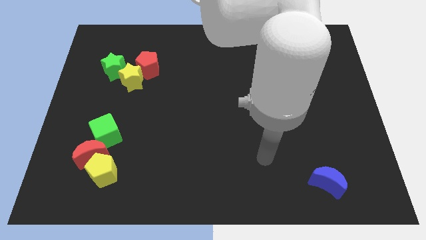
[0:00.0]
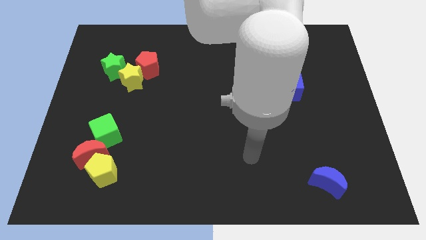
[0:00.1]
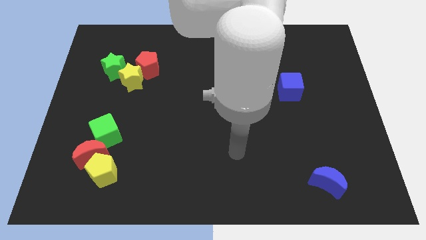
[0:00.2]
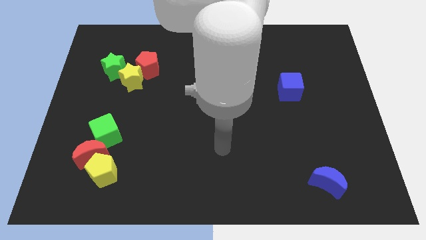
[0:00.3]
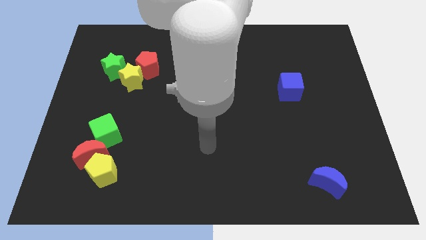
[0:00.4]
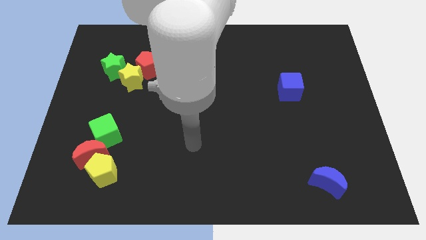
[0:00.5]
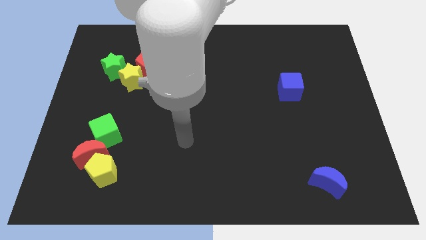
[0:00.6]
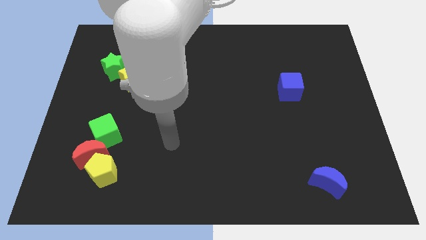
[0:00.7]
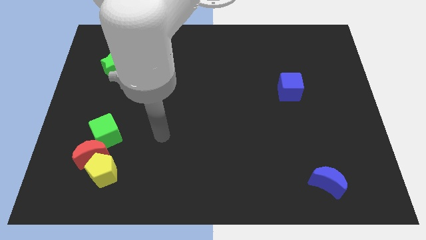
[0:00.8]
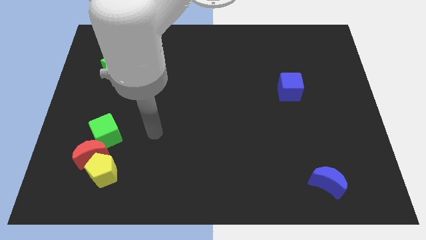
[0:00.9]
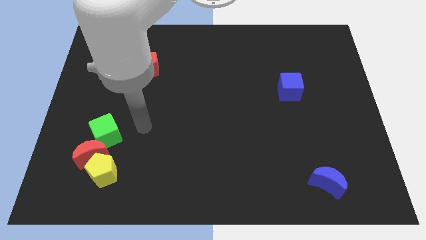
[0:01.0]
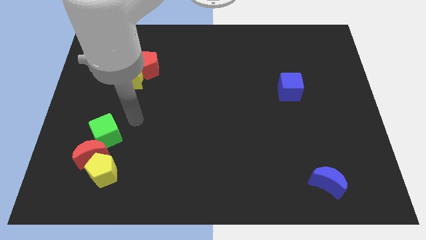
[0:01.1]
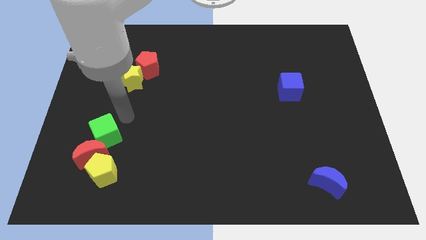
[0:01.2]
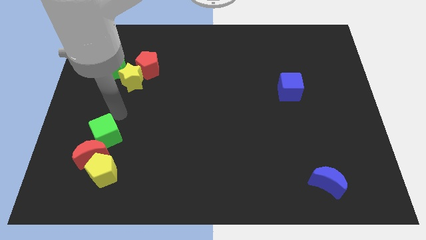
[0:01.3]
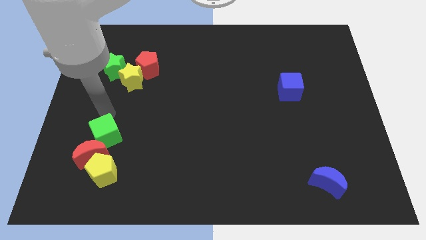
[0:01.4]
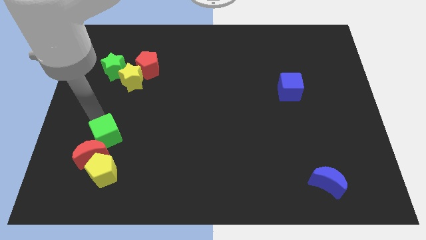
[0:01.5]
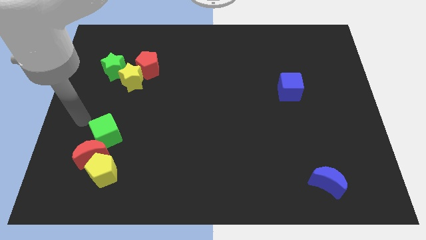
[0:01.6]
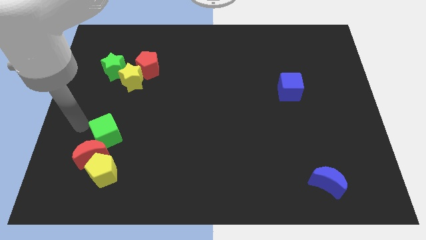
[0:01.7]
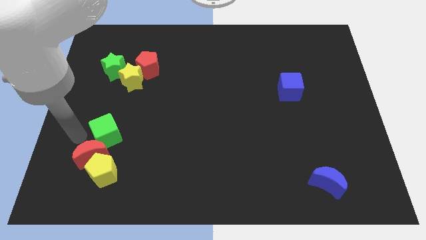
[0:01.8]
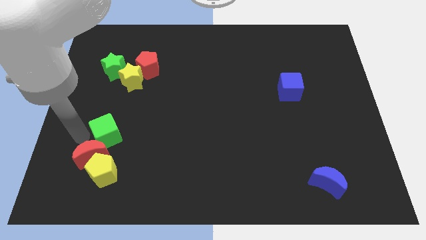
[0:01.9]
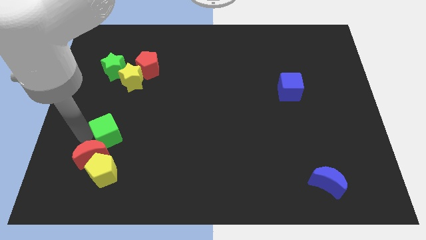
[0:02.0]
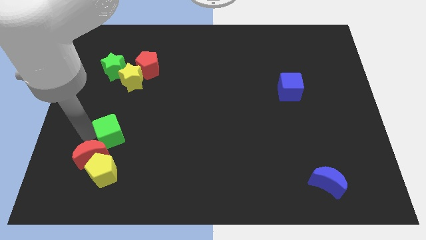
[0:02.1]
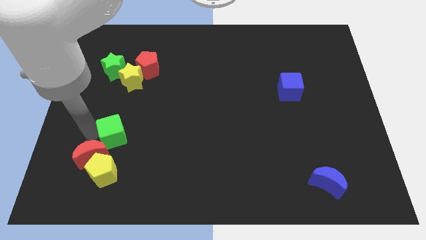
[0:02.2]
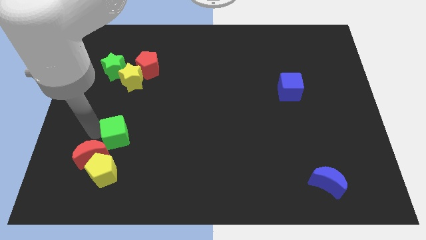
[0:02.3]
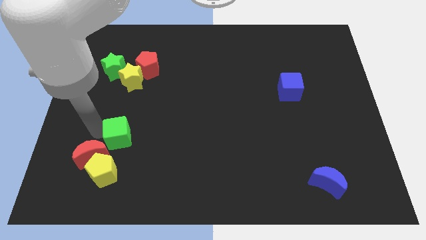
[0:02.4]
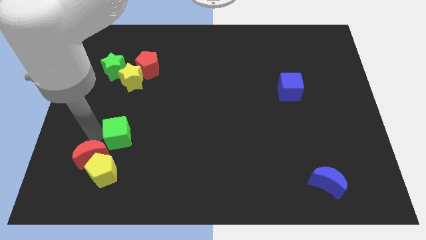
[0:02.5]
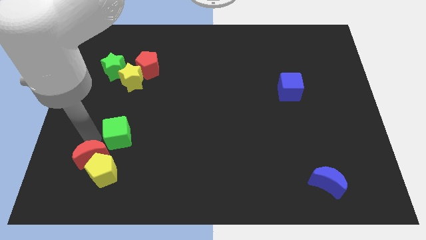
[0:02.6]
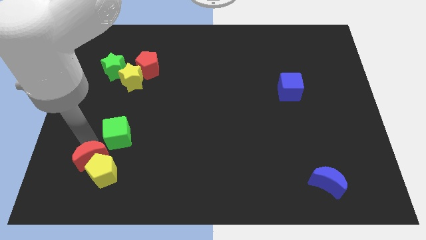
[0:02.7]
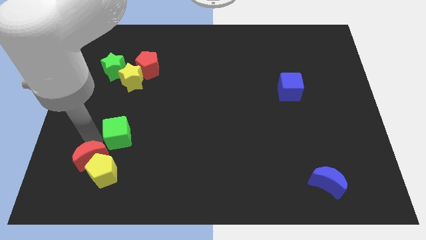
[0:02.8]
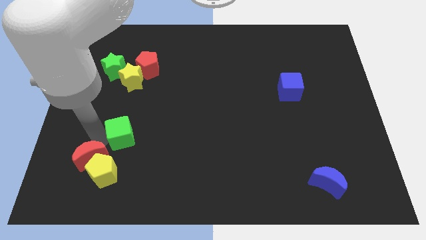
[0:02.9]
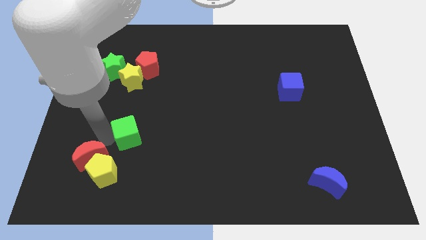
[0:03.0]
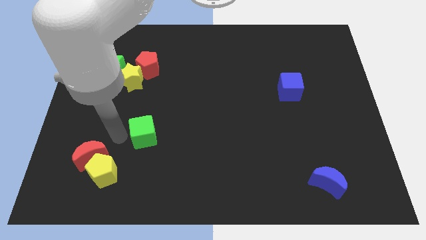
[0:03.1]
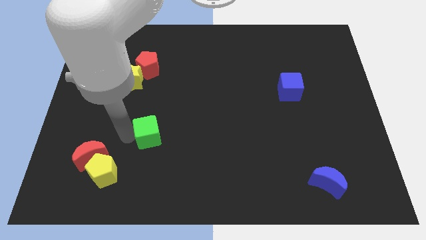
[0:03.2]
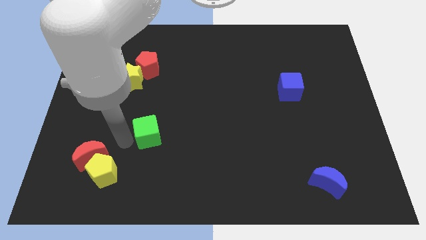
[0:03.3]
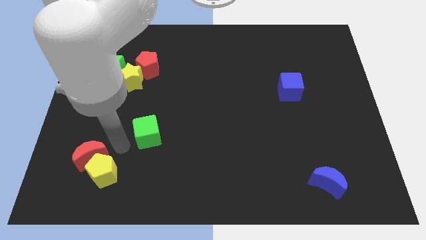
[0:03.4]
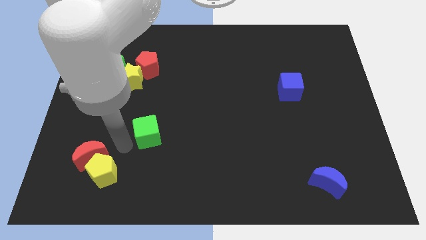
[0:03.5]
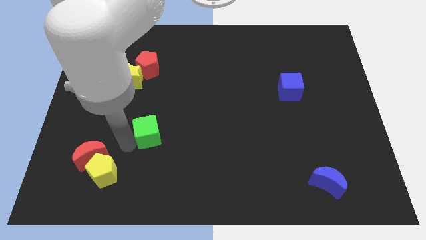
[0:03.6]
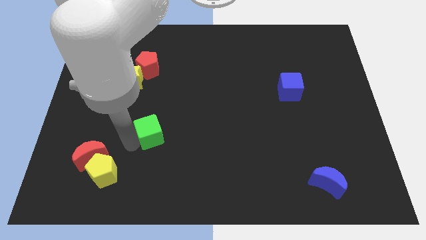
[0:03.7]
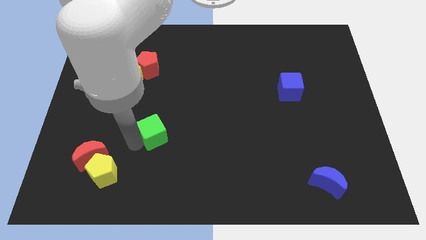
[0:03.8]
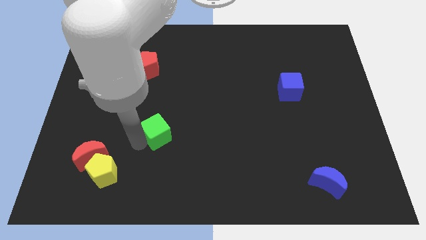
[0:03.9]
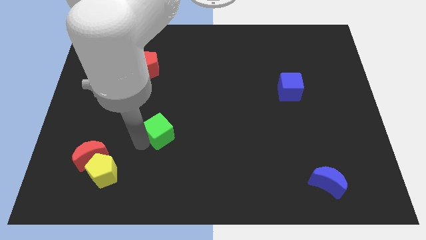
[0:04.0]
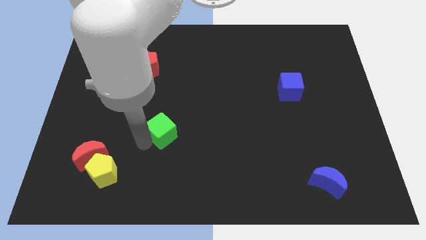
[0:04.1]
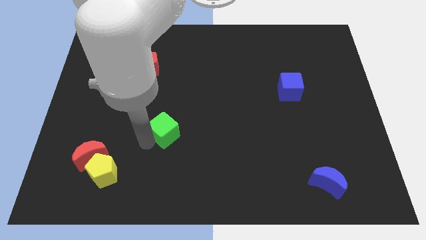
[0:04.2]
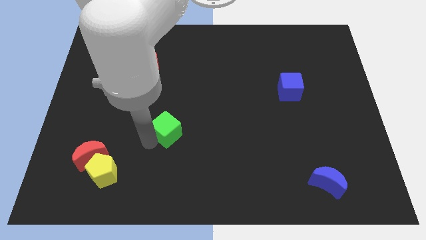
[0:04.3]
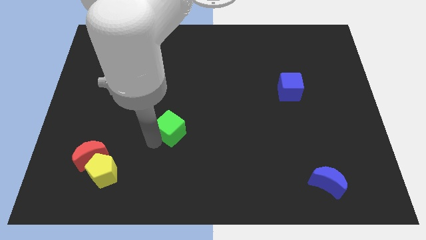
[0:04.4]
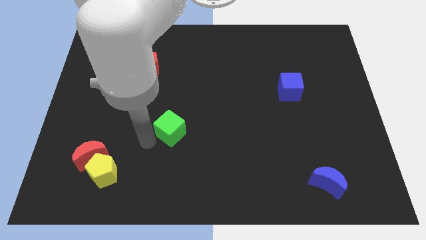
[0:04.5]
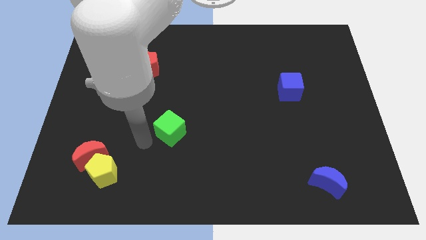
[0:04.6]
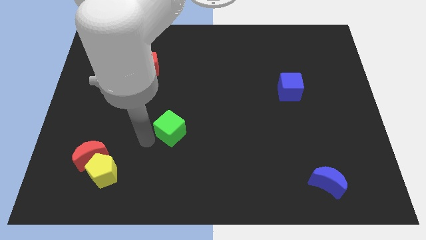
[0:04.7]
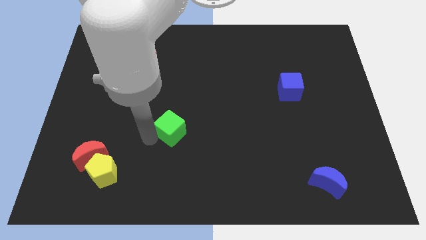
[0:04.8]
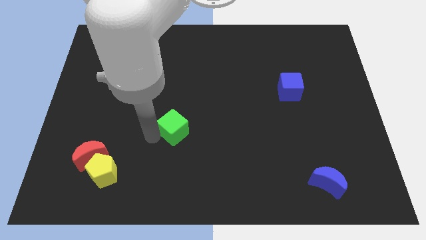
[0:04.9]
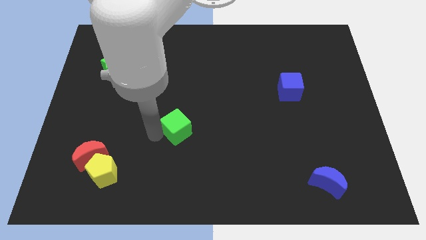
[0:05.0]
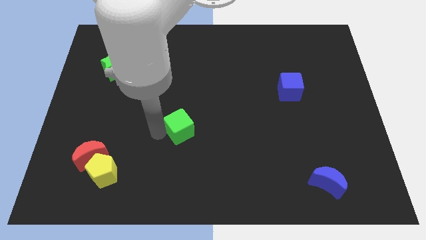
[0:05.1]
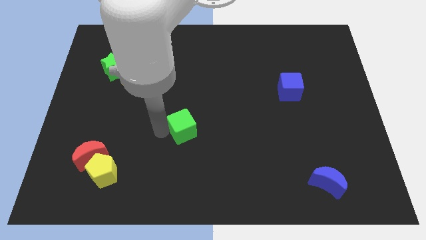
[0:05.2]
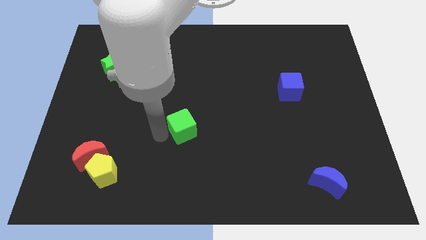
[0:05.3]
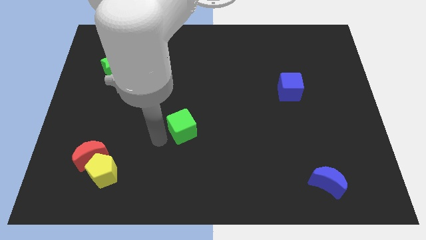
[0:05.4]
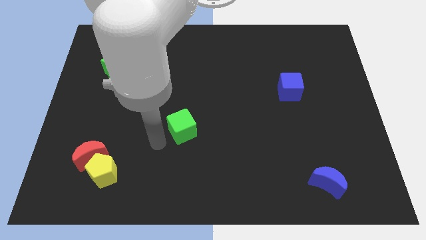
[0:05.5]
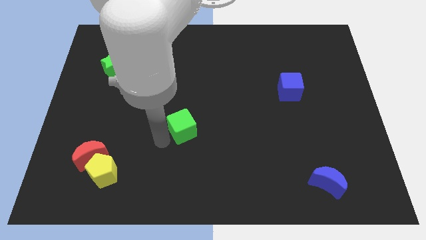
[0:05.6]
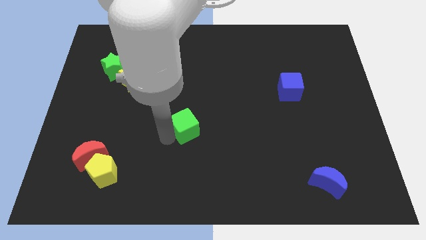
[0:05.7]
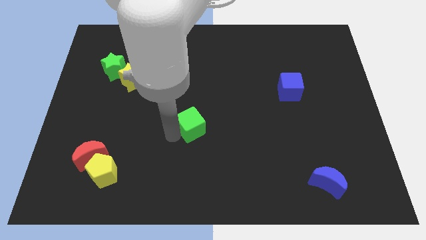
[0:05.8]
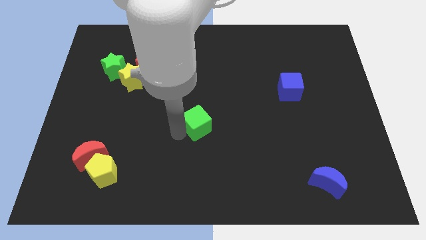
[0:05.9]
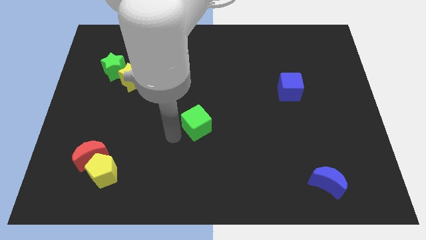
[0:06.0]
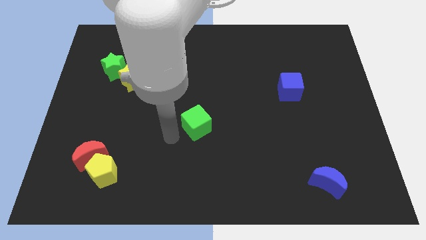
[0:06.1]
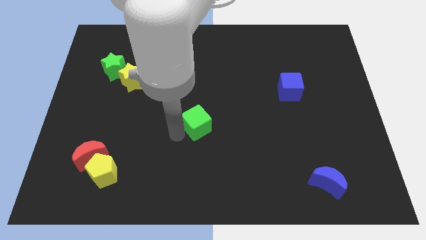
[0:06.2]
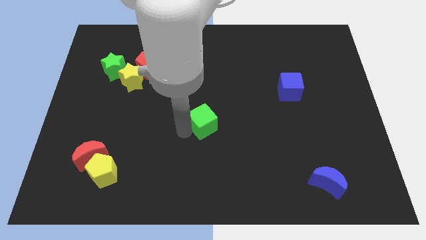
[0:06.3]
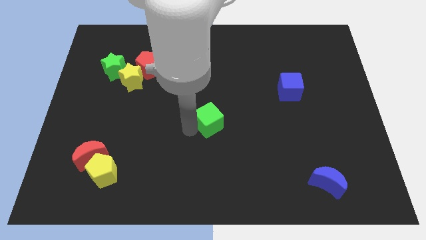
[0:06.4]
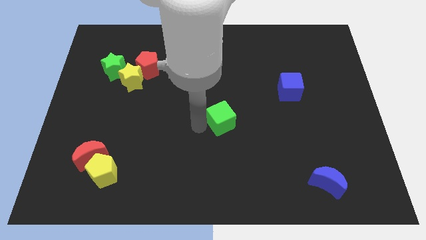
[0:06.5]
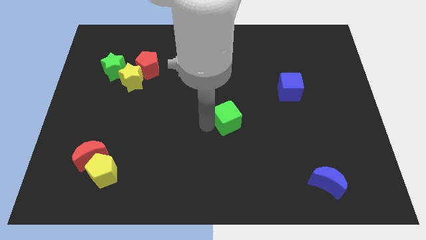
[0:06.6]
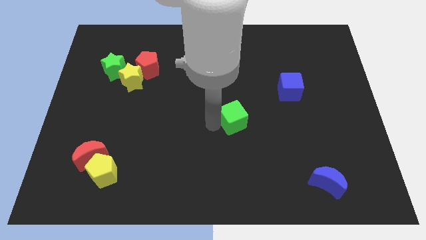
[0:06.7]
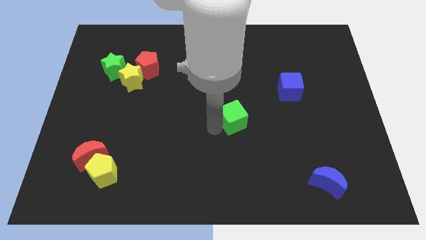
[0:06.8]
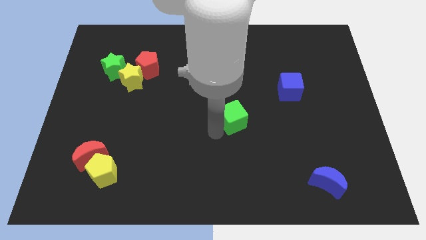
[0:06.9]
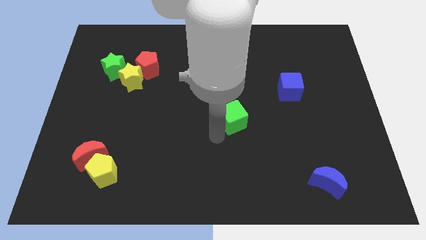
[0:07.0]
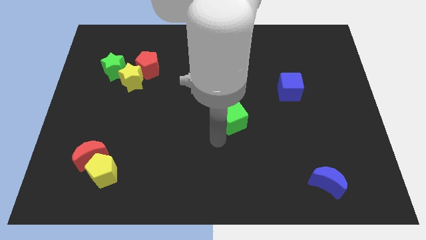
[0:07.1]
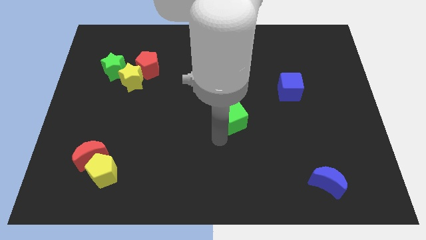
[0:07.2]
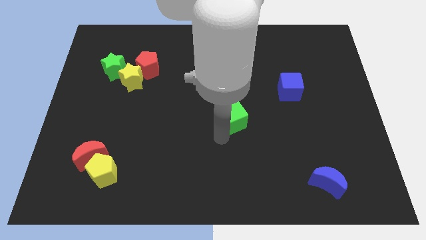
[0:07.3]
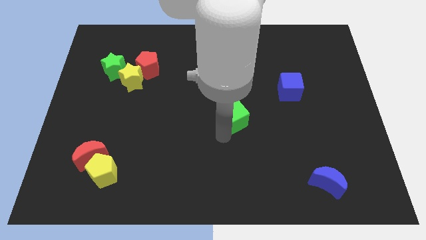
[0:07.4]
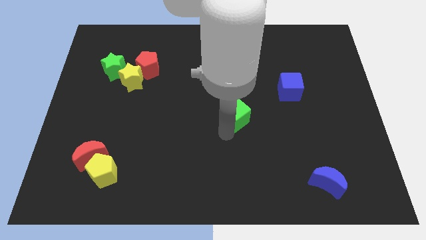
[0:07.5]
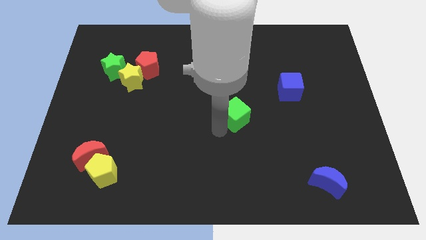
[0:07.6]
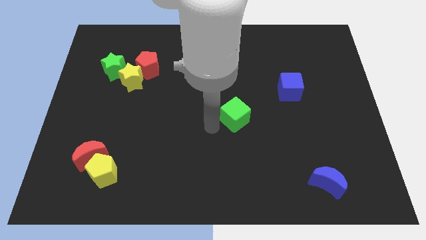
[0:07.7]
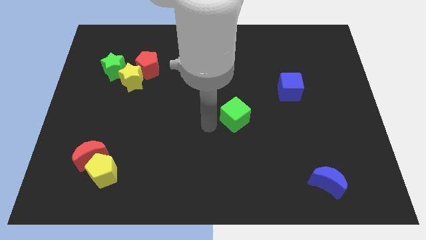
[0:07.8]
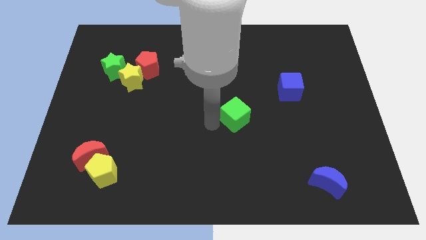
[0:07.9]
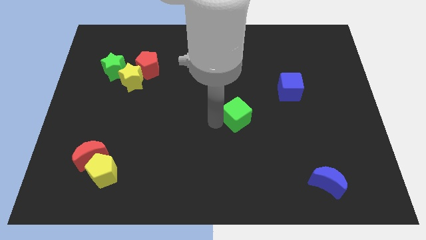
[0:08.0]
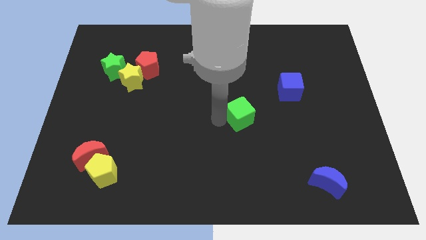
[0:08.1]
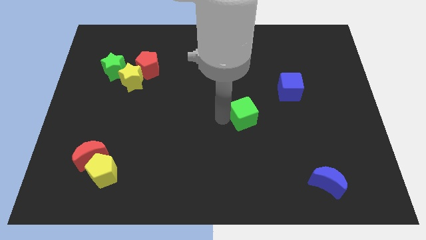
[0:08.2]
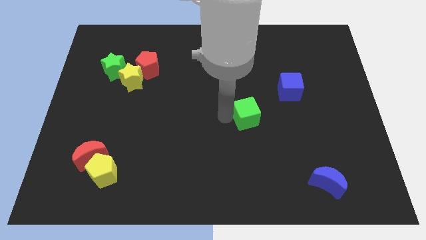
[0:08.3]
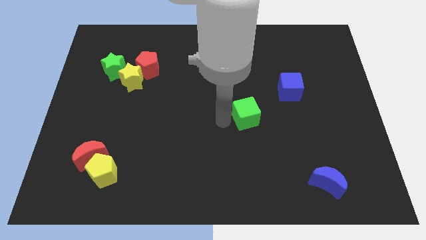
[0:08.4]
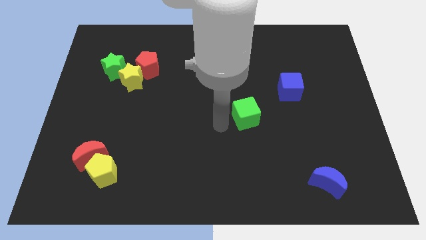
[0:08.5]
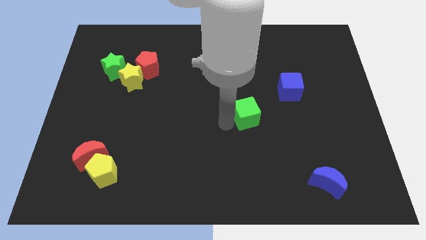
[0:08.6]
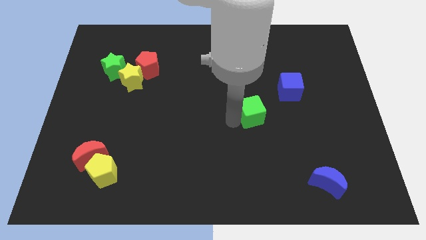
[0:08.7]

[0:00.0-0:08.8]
slide the green cube to the bottom left side of the blue cube
